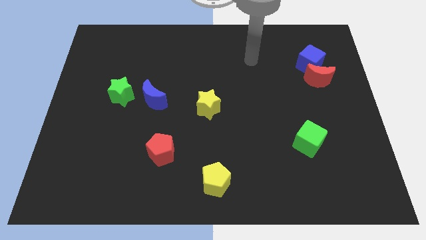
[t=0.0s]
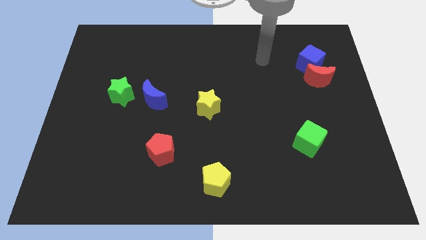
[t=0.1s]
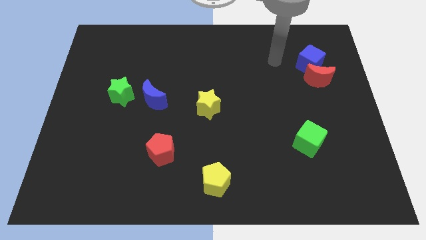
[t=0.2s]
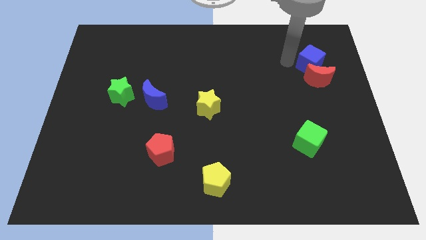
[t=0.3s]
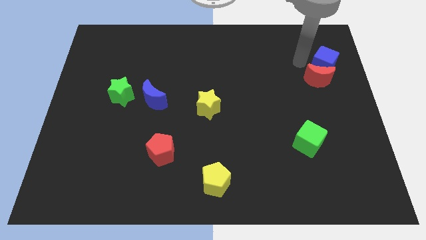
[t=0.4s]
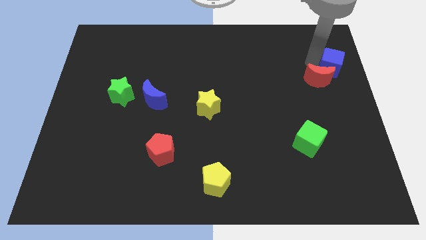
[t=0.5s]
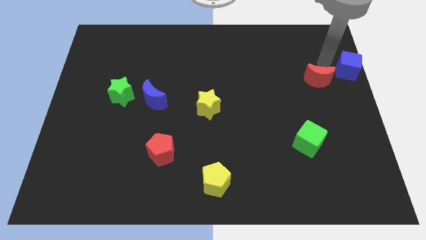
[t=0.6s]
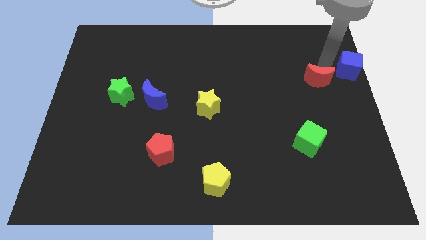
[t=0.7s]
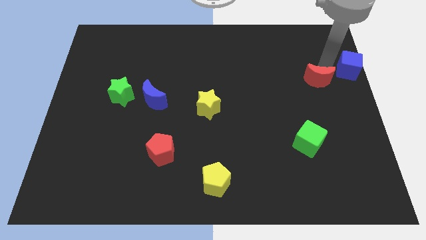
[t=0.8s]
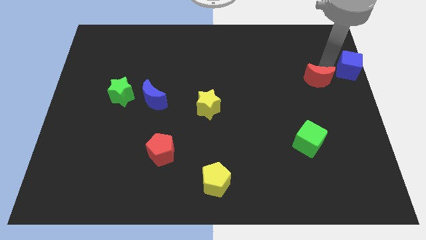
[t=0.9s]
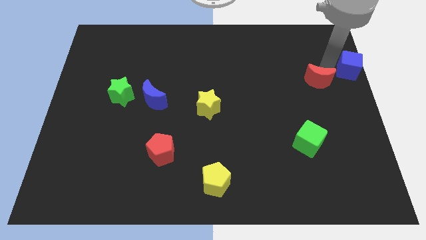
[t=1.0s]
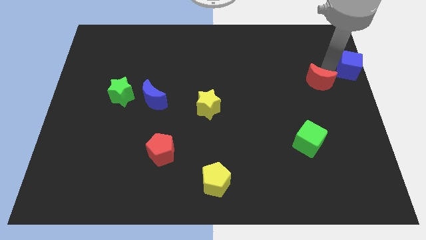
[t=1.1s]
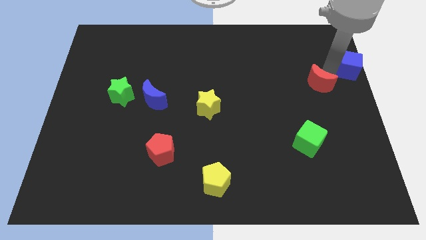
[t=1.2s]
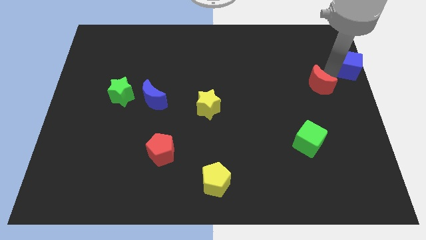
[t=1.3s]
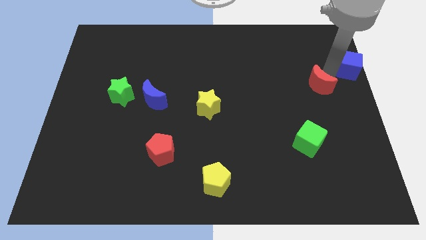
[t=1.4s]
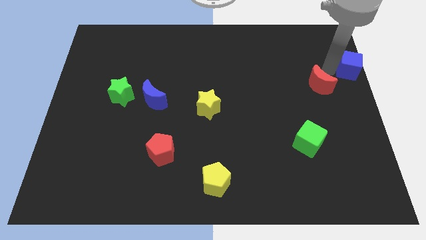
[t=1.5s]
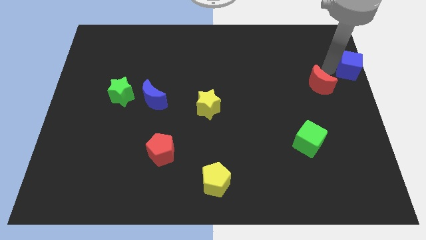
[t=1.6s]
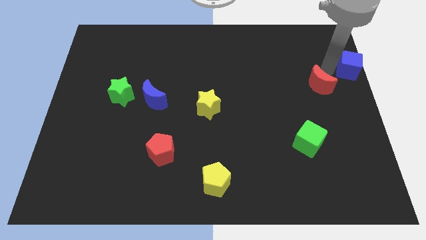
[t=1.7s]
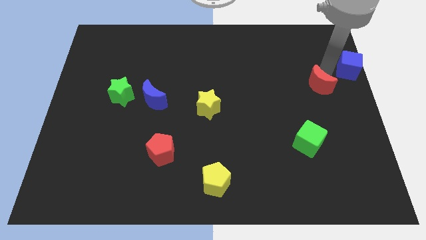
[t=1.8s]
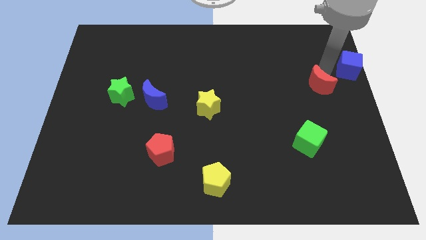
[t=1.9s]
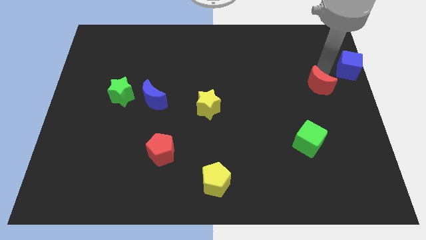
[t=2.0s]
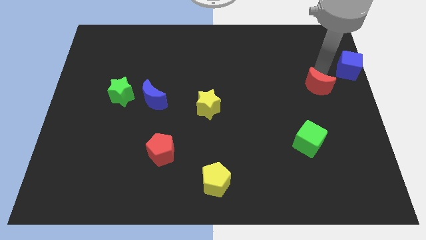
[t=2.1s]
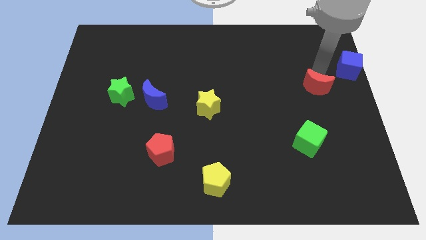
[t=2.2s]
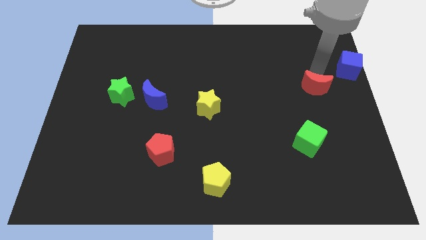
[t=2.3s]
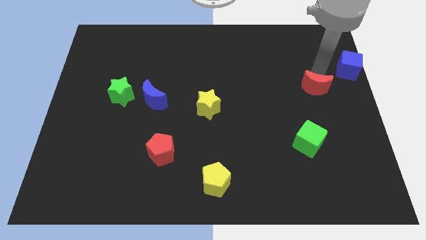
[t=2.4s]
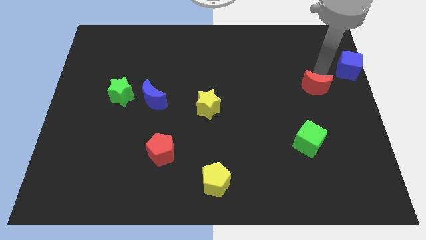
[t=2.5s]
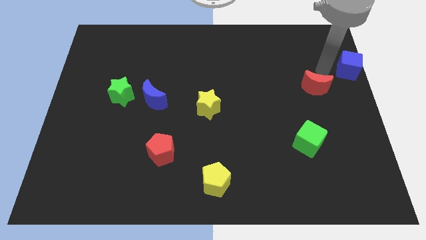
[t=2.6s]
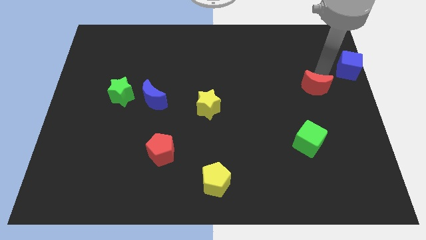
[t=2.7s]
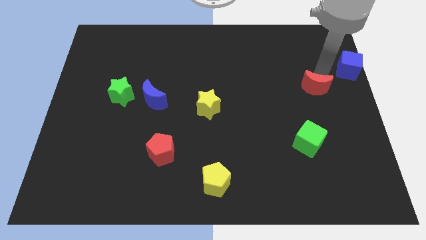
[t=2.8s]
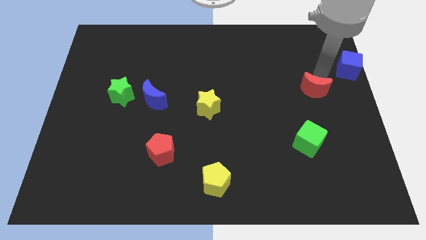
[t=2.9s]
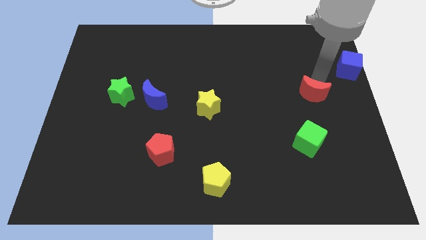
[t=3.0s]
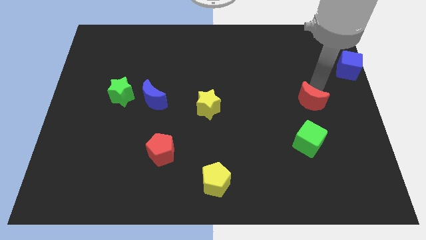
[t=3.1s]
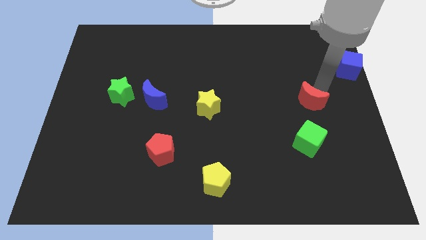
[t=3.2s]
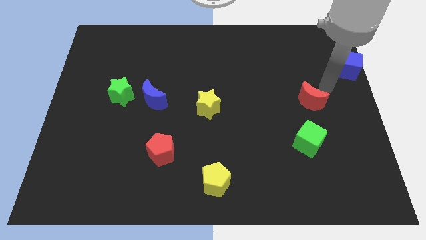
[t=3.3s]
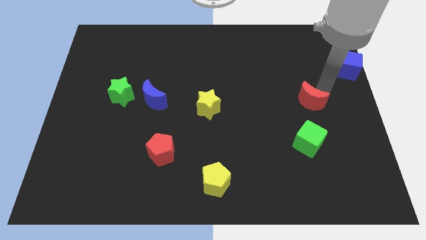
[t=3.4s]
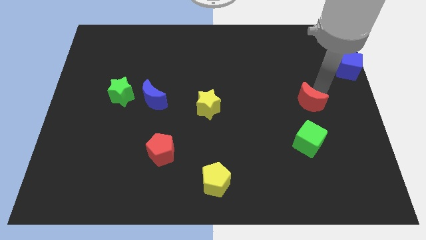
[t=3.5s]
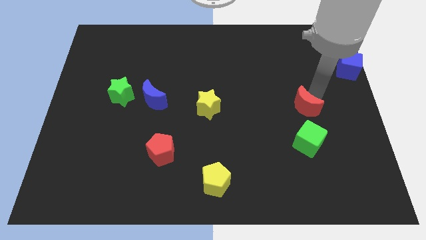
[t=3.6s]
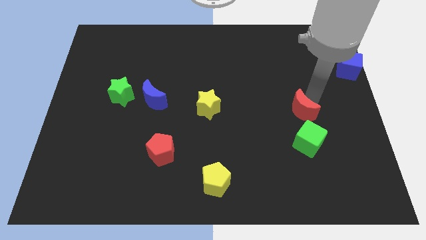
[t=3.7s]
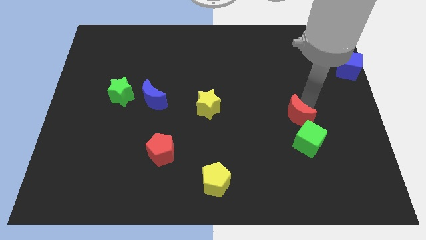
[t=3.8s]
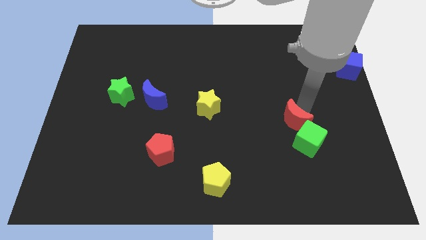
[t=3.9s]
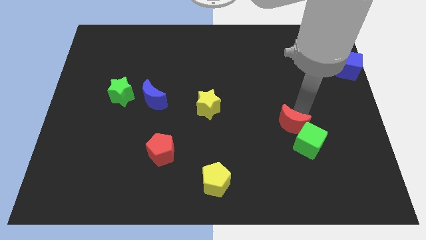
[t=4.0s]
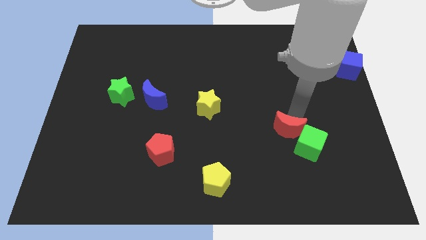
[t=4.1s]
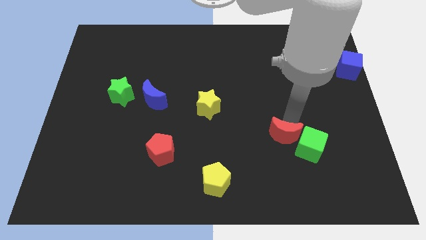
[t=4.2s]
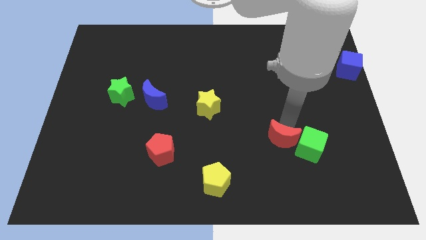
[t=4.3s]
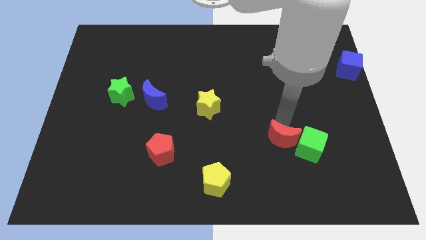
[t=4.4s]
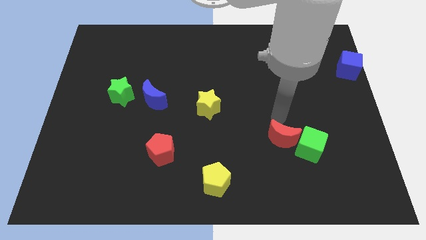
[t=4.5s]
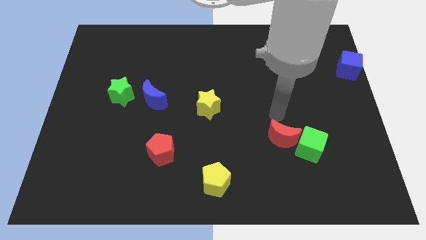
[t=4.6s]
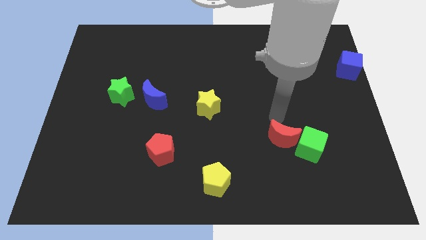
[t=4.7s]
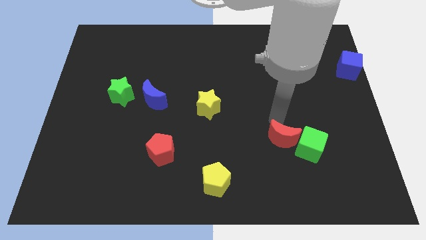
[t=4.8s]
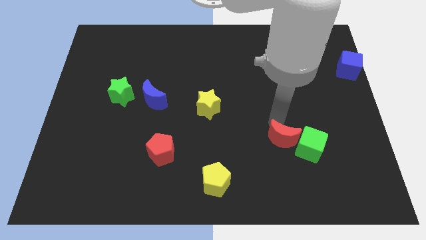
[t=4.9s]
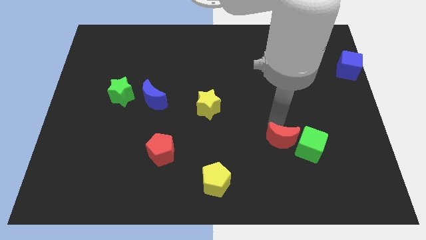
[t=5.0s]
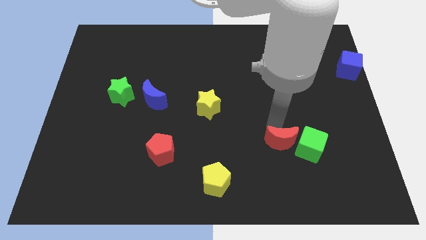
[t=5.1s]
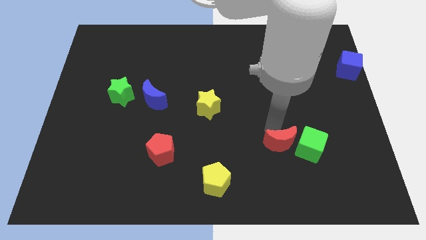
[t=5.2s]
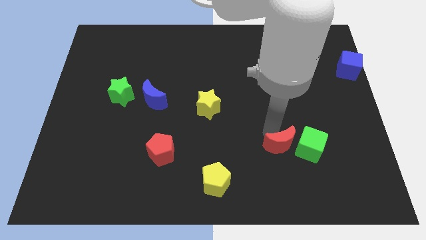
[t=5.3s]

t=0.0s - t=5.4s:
push the red moon to the bottom left of the green cube

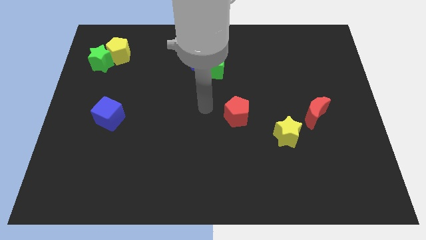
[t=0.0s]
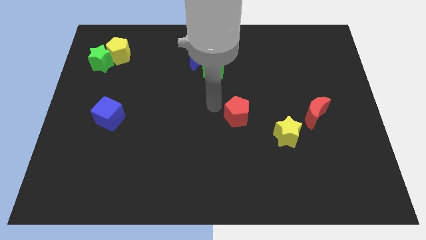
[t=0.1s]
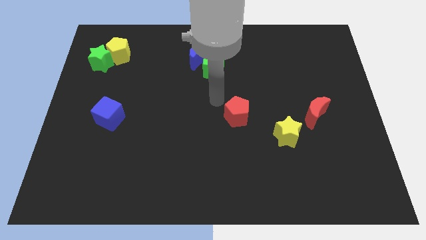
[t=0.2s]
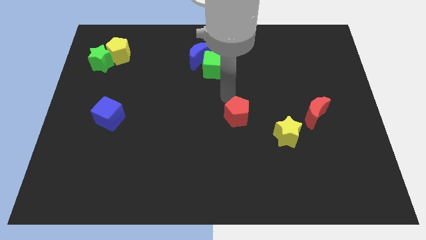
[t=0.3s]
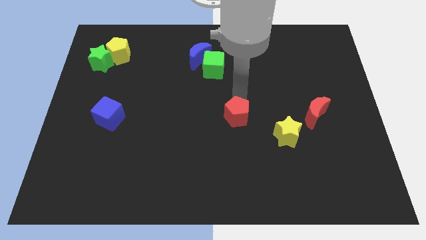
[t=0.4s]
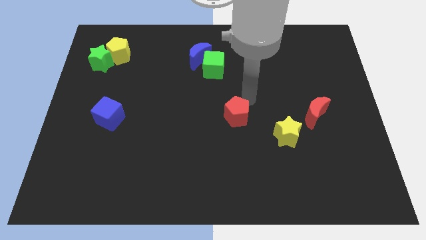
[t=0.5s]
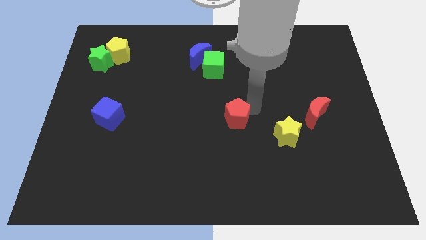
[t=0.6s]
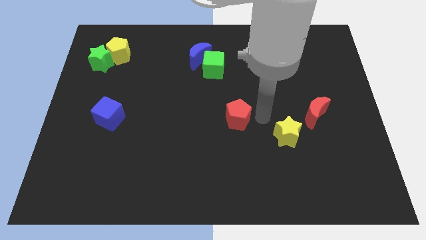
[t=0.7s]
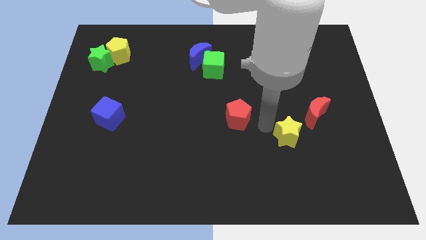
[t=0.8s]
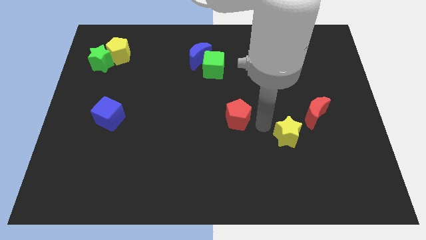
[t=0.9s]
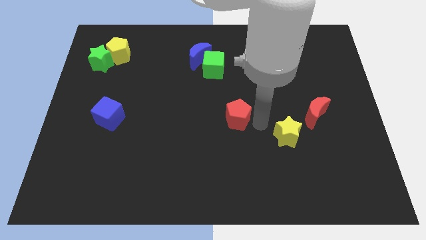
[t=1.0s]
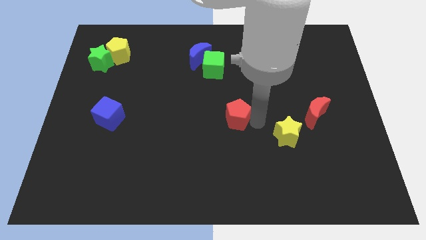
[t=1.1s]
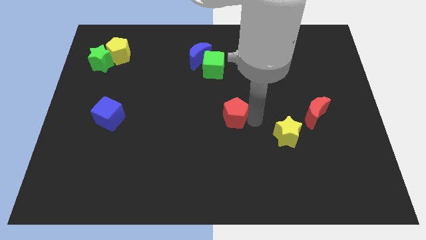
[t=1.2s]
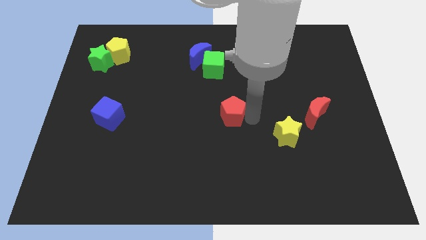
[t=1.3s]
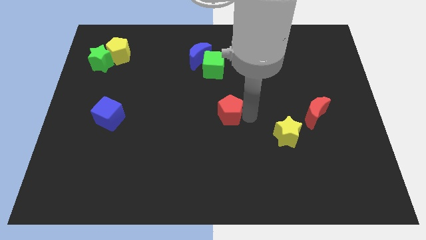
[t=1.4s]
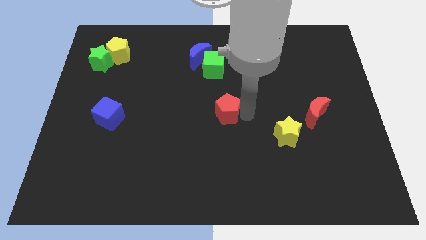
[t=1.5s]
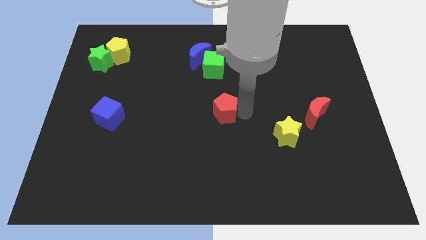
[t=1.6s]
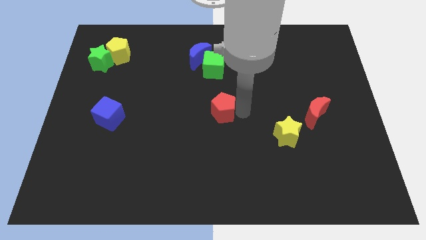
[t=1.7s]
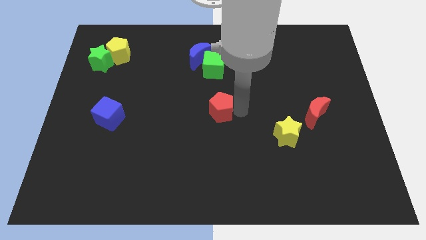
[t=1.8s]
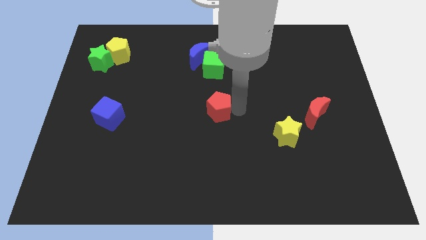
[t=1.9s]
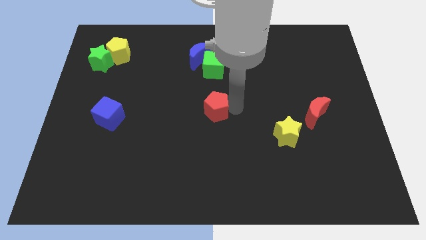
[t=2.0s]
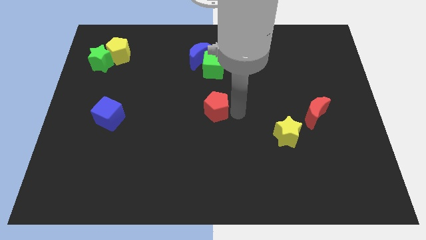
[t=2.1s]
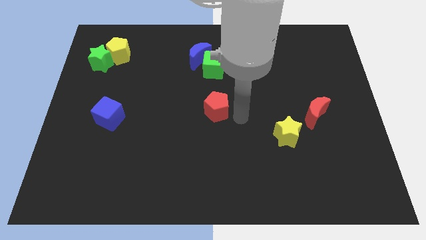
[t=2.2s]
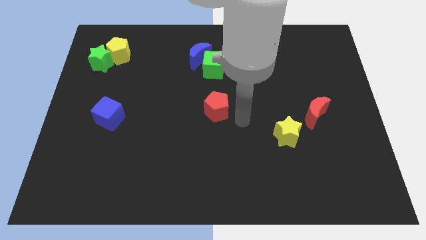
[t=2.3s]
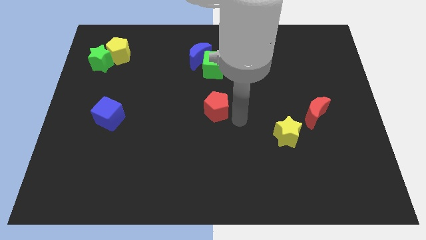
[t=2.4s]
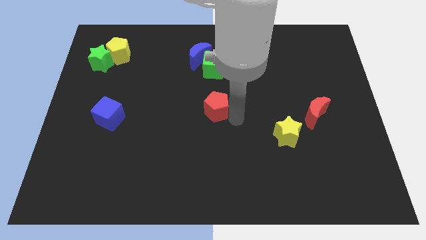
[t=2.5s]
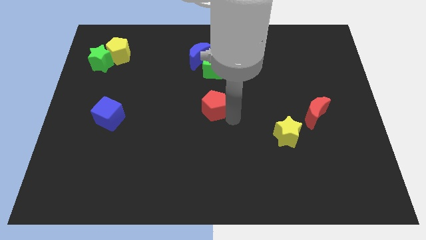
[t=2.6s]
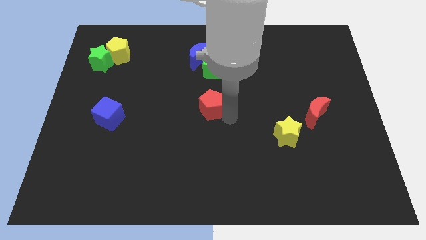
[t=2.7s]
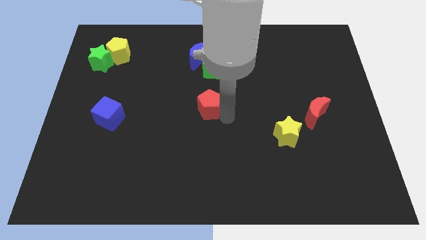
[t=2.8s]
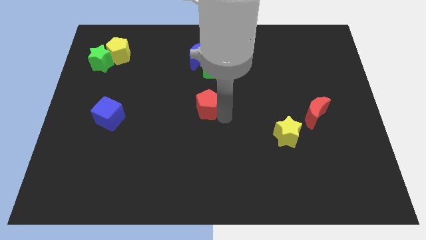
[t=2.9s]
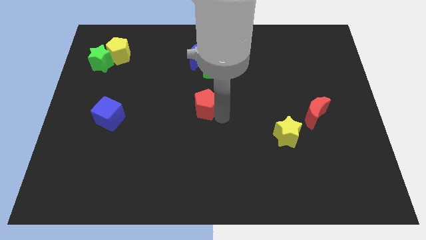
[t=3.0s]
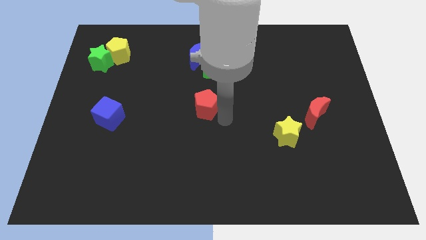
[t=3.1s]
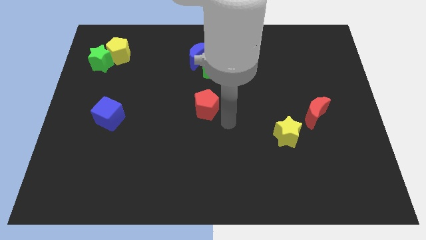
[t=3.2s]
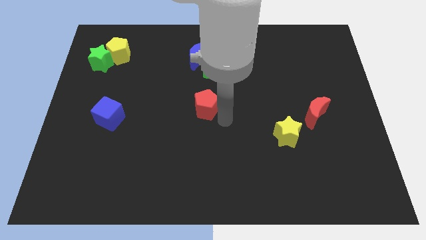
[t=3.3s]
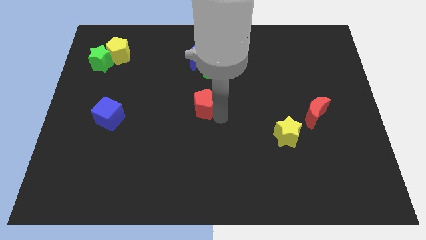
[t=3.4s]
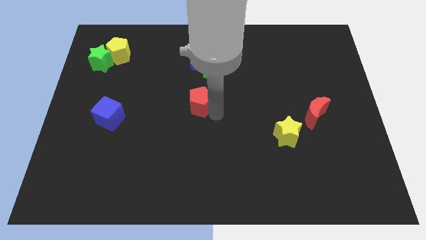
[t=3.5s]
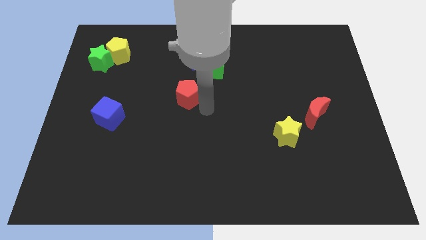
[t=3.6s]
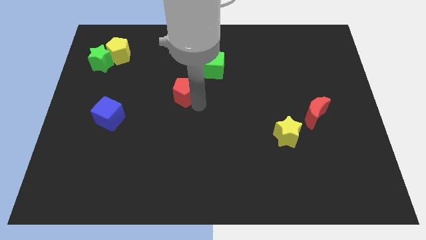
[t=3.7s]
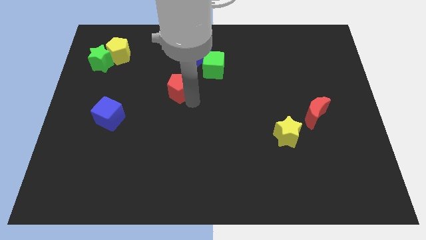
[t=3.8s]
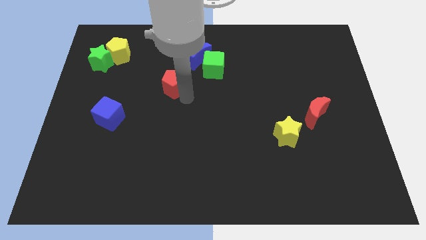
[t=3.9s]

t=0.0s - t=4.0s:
push the red pentagon to the bottom left side of the blue moon
